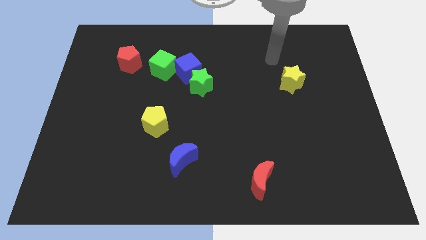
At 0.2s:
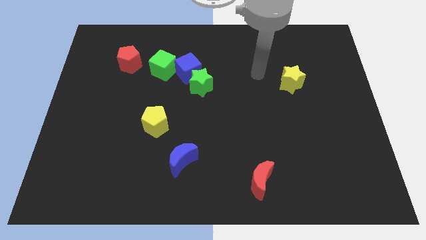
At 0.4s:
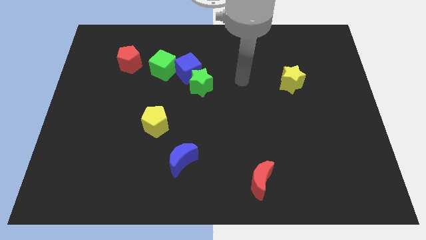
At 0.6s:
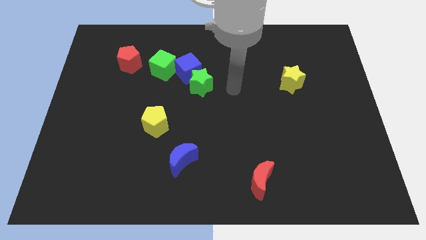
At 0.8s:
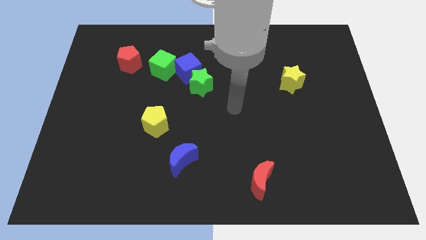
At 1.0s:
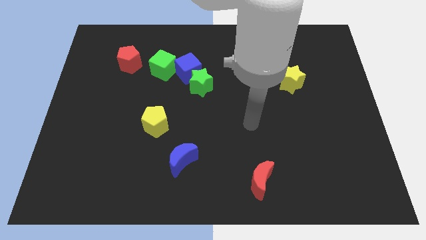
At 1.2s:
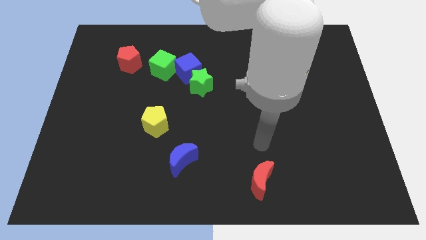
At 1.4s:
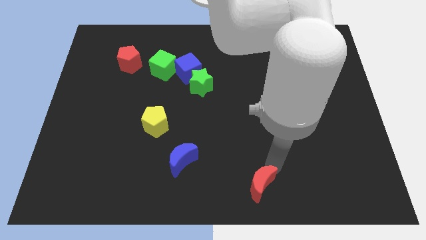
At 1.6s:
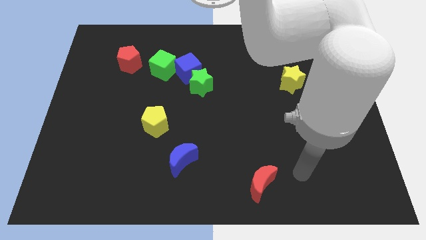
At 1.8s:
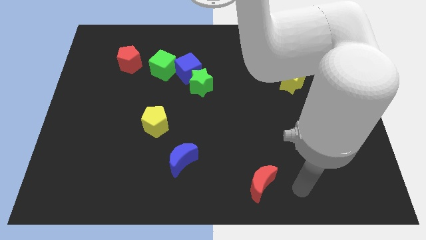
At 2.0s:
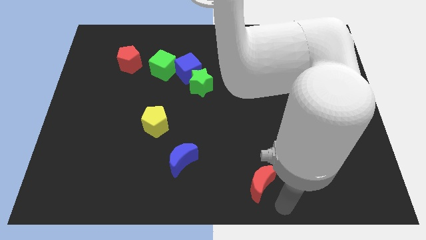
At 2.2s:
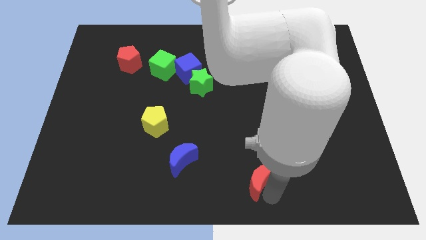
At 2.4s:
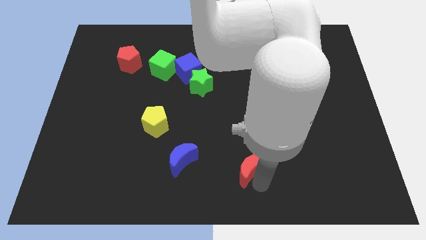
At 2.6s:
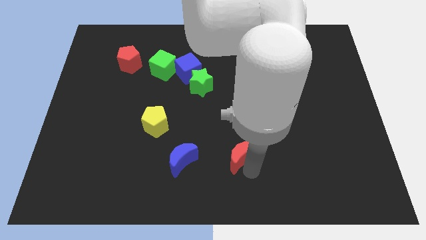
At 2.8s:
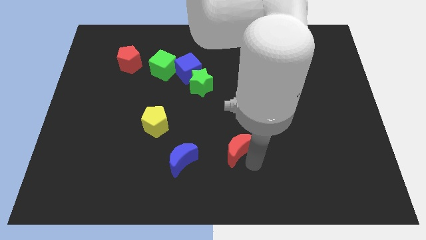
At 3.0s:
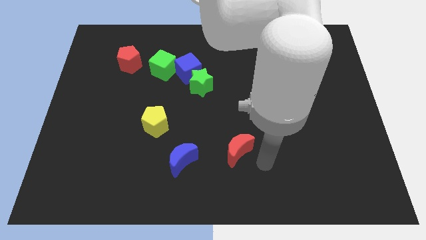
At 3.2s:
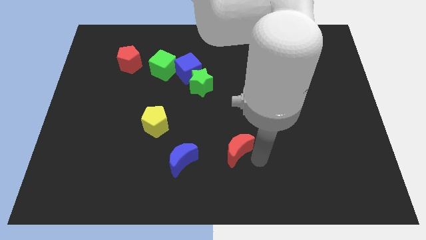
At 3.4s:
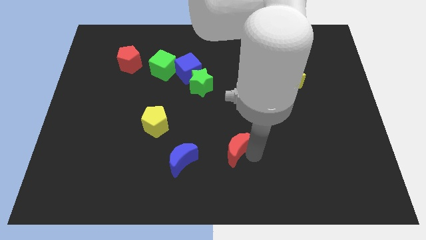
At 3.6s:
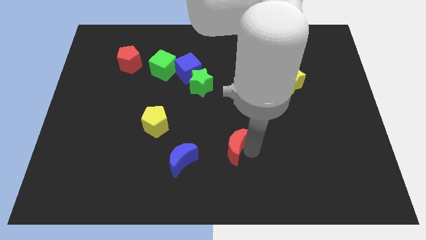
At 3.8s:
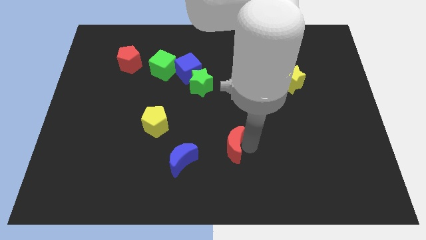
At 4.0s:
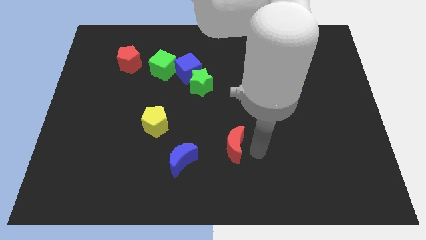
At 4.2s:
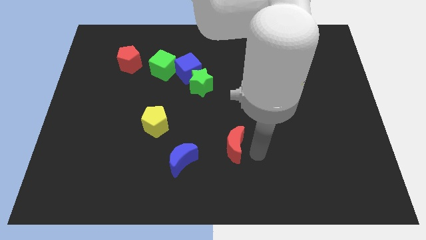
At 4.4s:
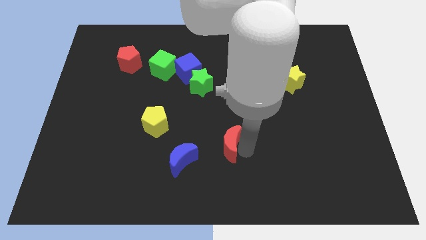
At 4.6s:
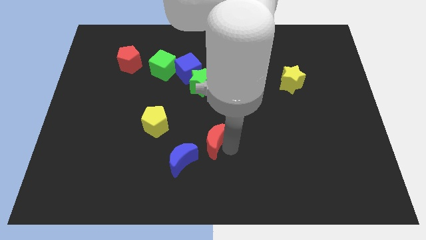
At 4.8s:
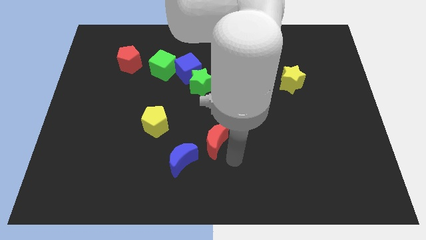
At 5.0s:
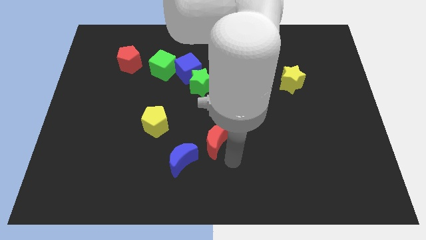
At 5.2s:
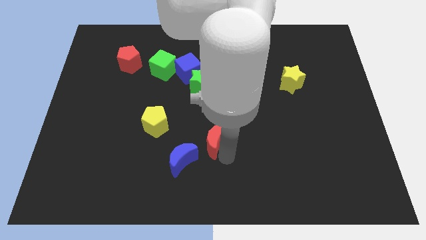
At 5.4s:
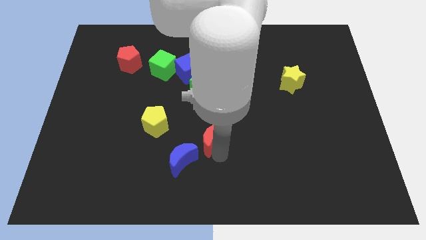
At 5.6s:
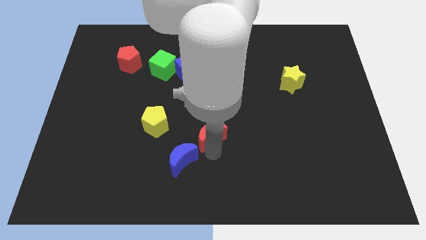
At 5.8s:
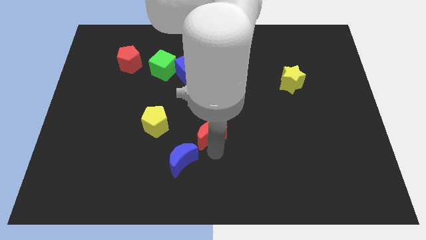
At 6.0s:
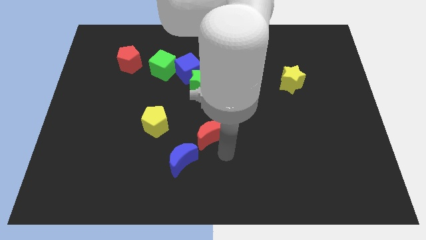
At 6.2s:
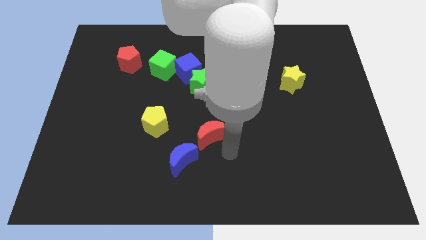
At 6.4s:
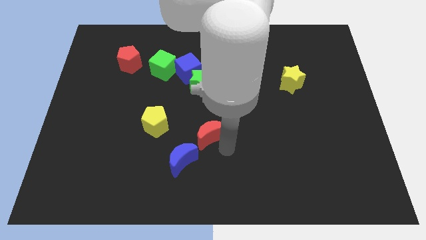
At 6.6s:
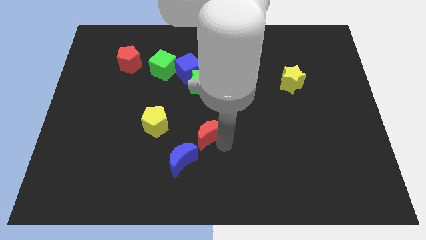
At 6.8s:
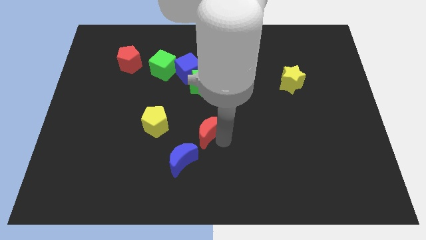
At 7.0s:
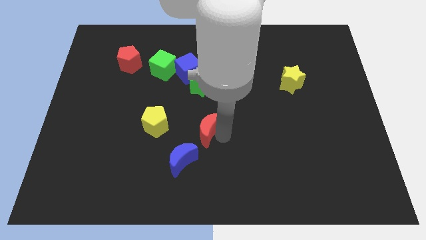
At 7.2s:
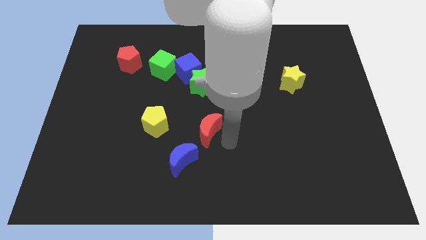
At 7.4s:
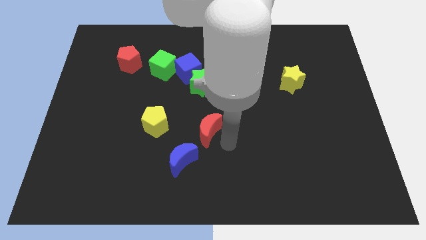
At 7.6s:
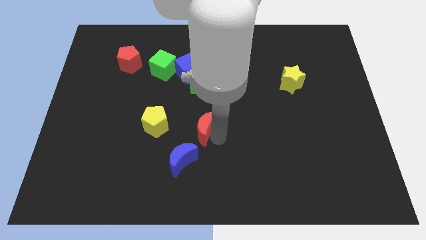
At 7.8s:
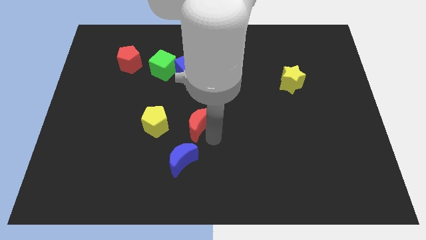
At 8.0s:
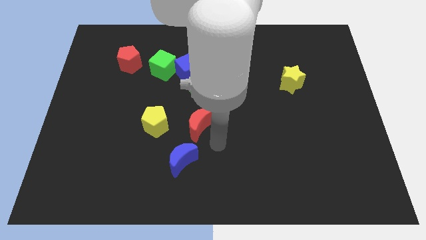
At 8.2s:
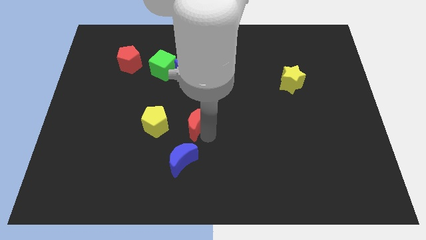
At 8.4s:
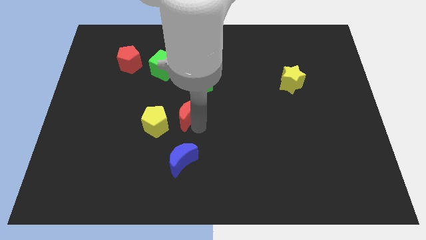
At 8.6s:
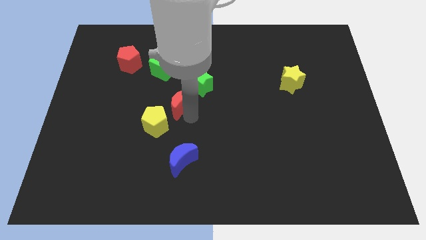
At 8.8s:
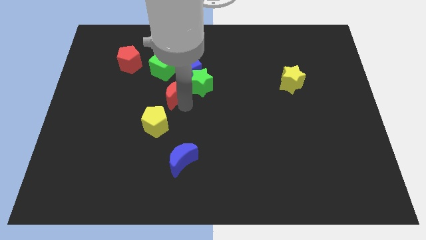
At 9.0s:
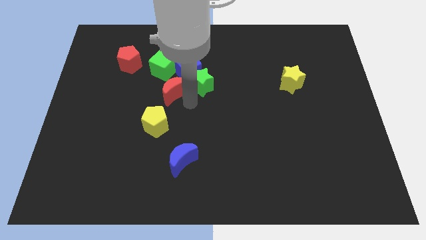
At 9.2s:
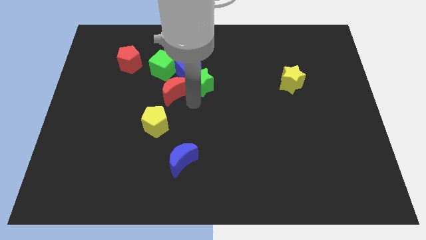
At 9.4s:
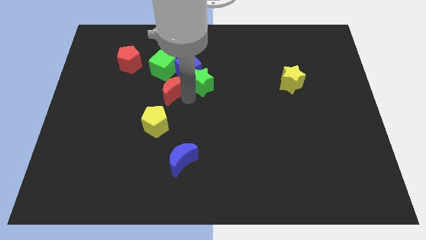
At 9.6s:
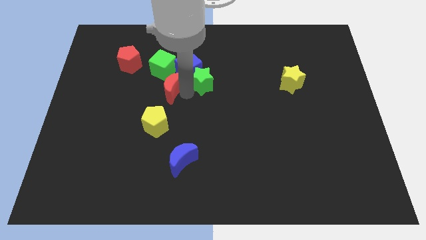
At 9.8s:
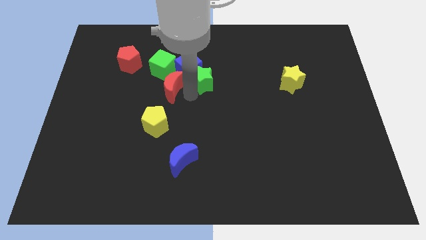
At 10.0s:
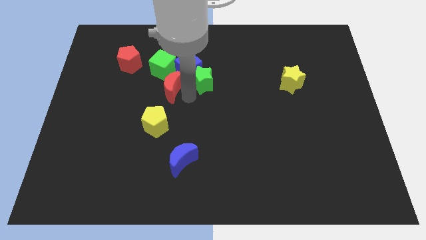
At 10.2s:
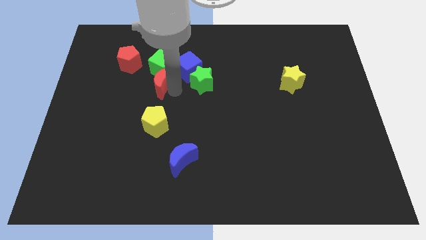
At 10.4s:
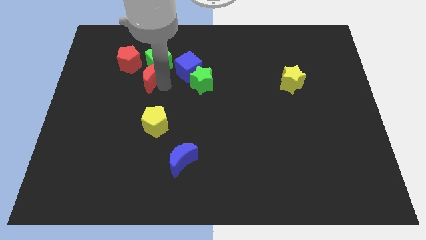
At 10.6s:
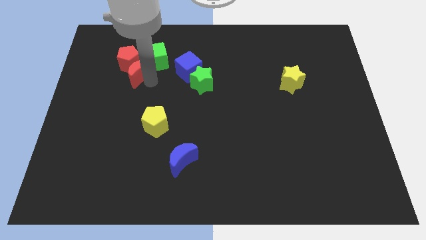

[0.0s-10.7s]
push the red moon next to the red pentagon

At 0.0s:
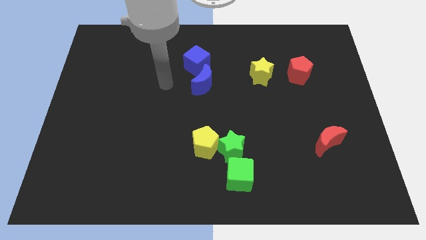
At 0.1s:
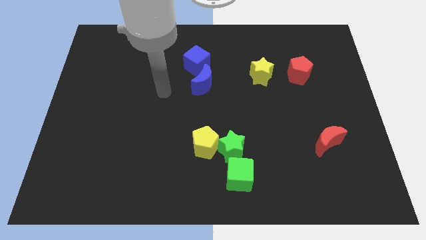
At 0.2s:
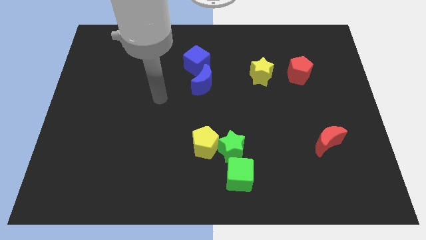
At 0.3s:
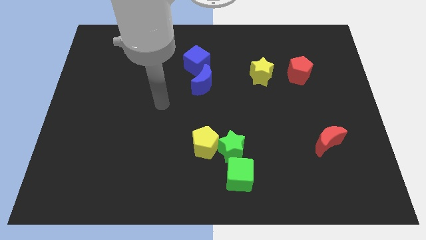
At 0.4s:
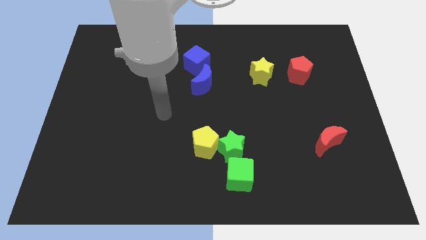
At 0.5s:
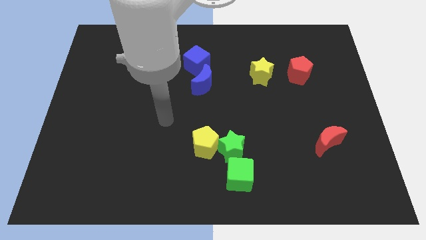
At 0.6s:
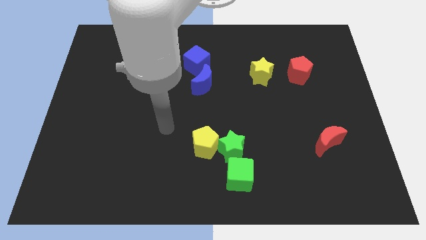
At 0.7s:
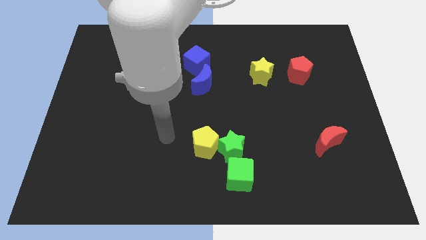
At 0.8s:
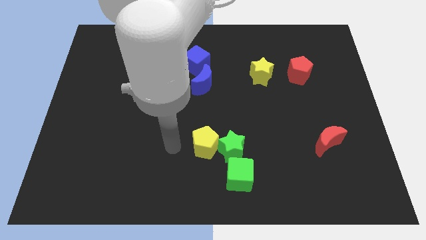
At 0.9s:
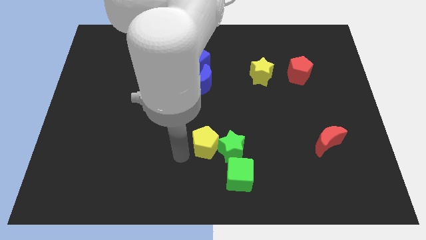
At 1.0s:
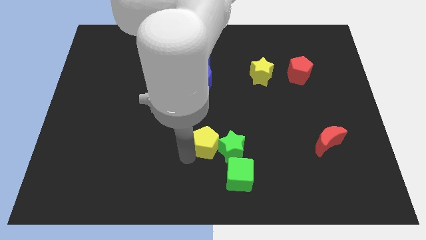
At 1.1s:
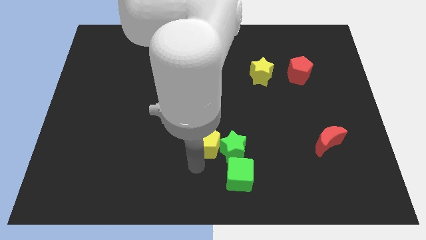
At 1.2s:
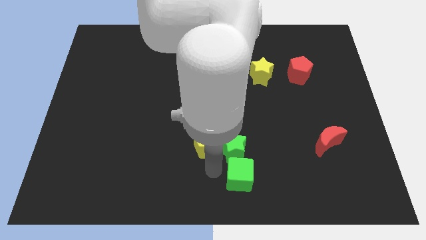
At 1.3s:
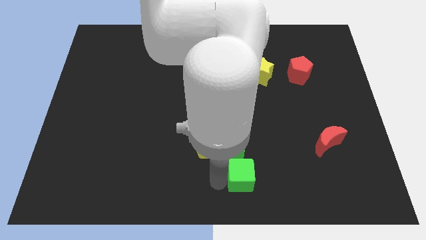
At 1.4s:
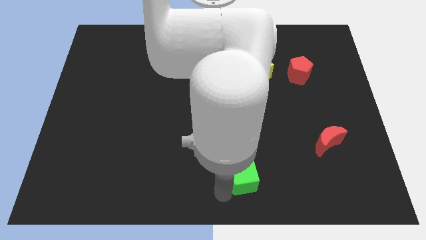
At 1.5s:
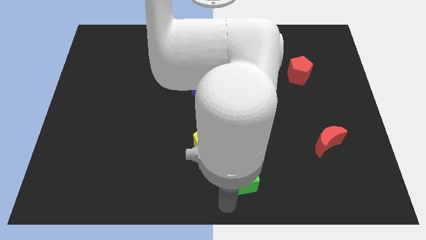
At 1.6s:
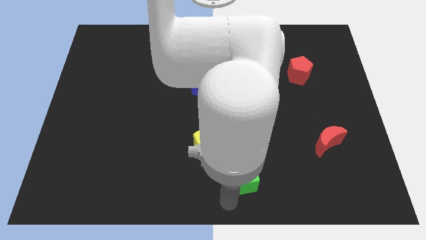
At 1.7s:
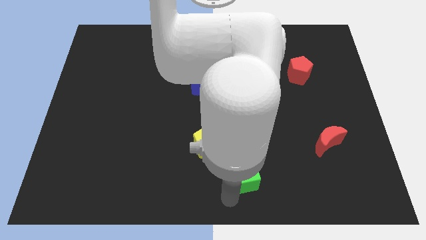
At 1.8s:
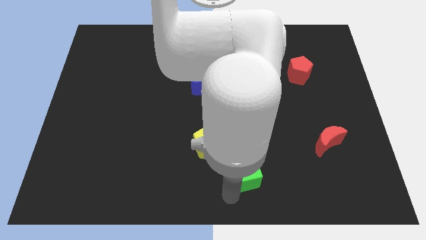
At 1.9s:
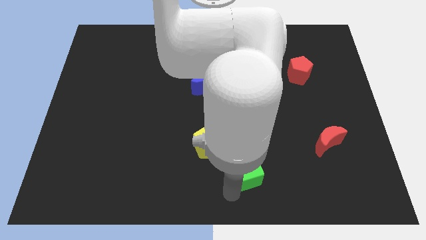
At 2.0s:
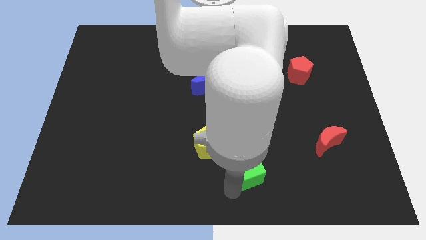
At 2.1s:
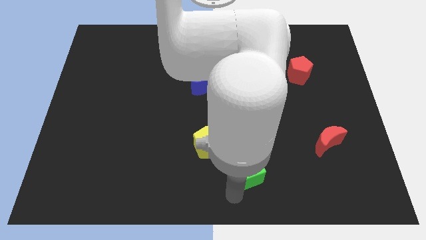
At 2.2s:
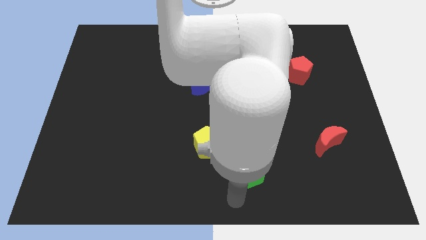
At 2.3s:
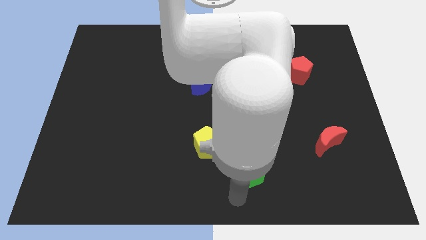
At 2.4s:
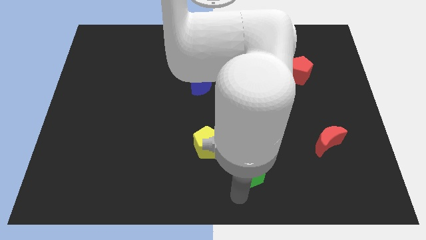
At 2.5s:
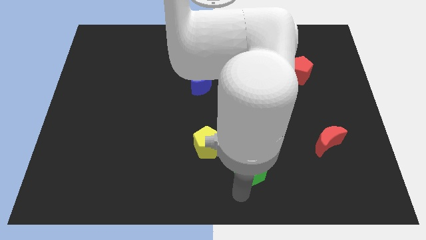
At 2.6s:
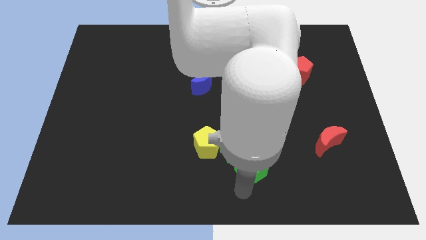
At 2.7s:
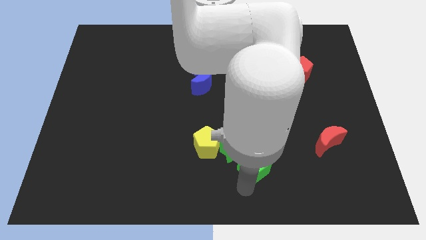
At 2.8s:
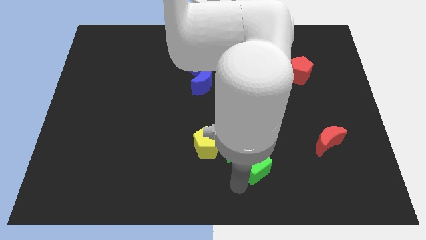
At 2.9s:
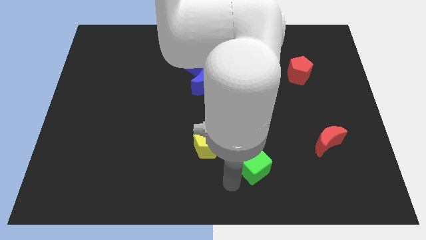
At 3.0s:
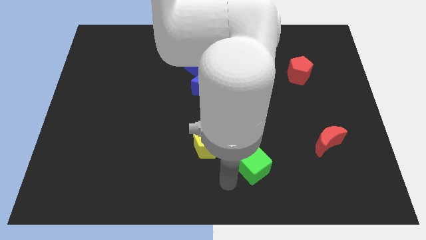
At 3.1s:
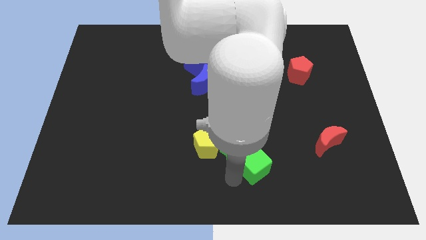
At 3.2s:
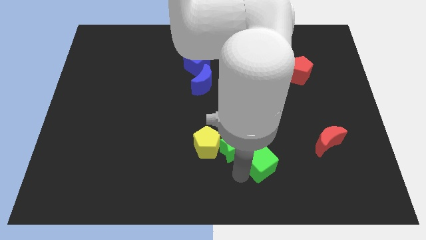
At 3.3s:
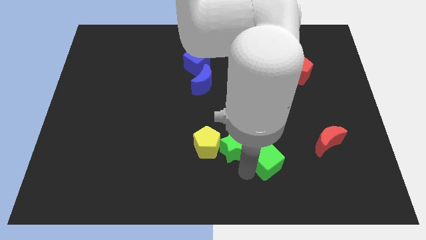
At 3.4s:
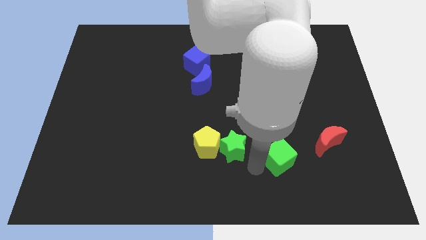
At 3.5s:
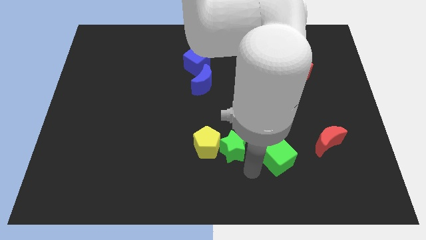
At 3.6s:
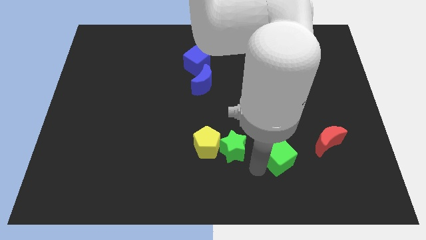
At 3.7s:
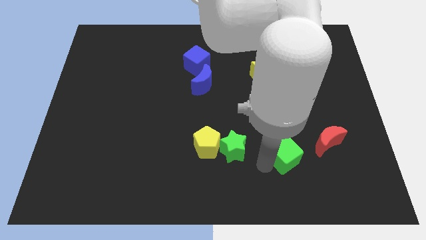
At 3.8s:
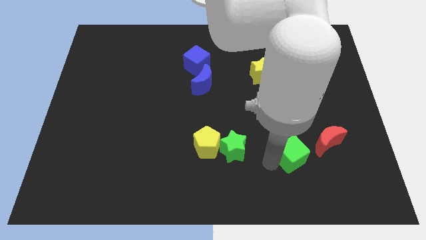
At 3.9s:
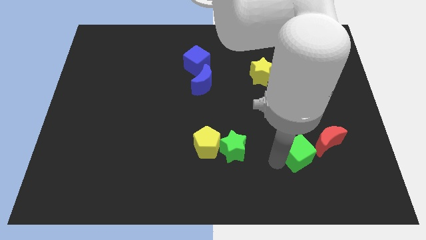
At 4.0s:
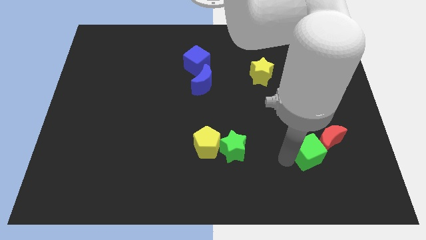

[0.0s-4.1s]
put the green cube close to the red moon
